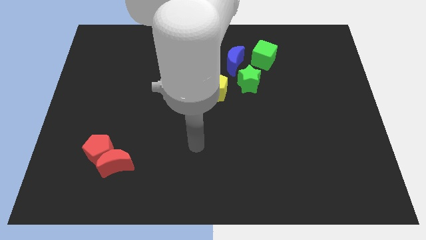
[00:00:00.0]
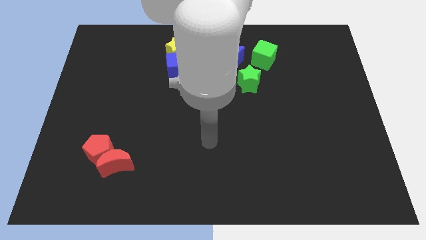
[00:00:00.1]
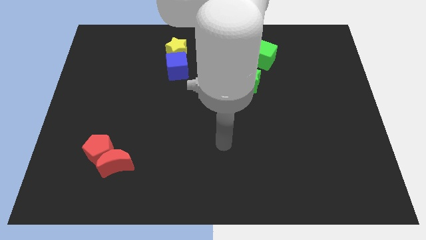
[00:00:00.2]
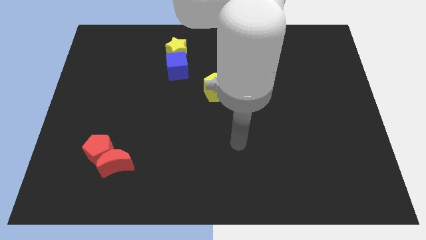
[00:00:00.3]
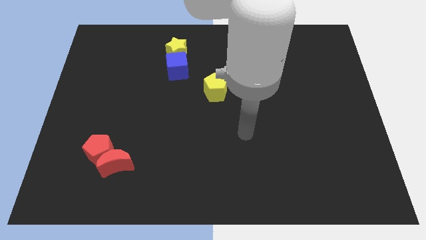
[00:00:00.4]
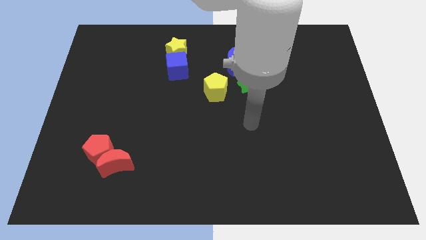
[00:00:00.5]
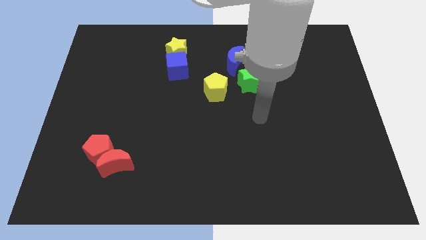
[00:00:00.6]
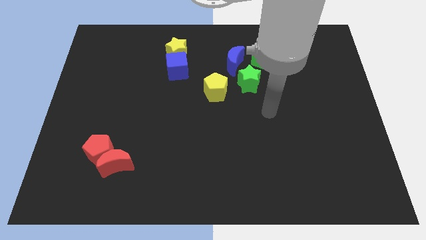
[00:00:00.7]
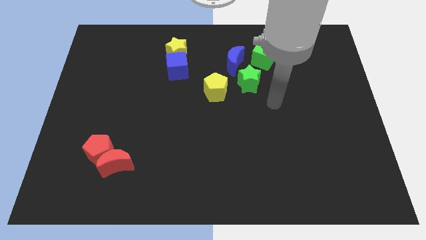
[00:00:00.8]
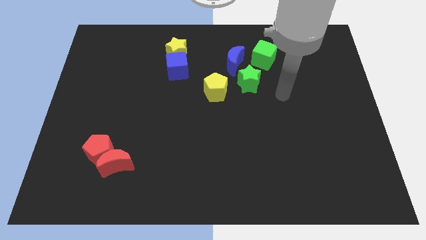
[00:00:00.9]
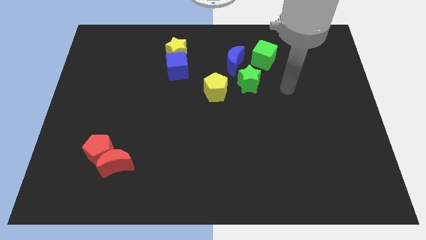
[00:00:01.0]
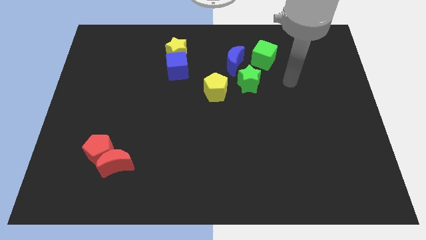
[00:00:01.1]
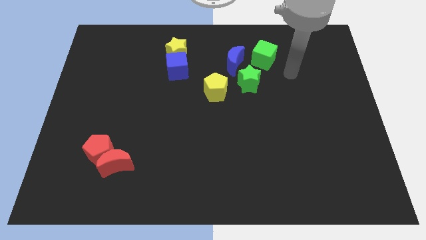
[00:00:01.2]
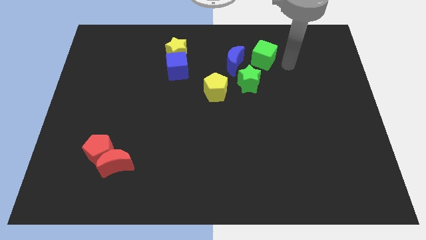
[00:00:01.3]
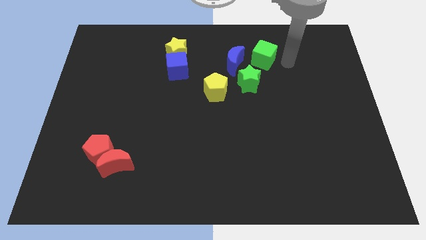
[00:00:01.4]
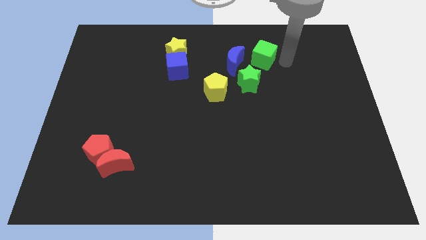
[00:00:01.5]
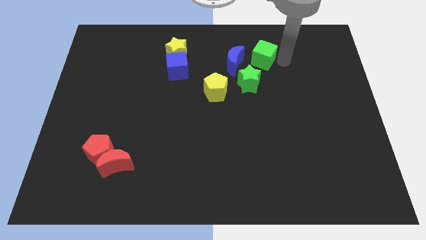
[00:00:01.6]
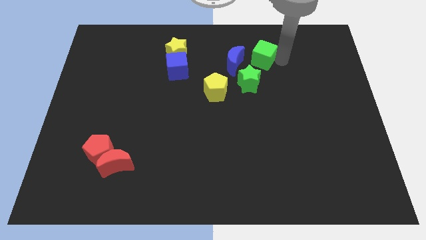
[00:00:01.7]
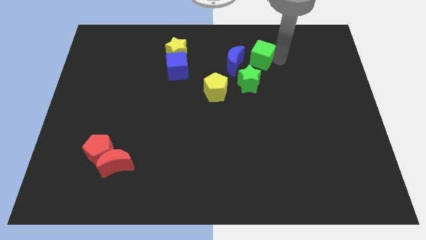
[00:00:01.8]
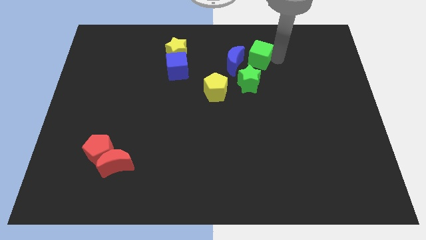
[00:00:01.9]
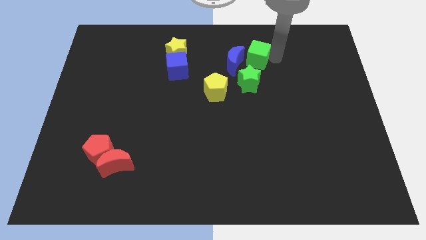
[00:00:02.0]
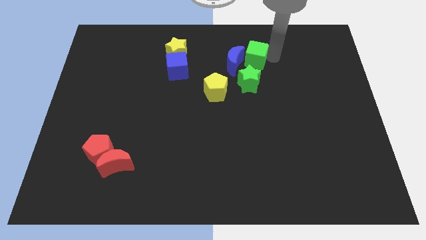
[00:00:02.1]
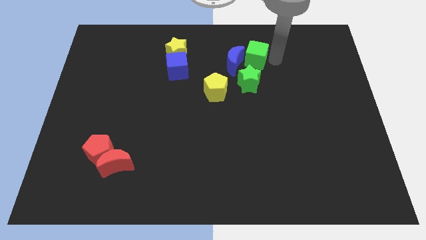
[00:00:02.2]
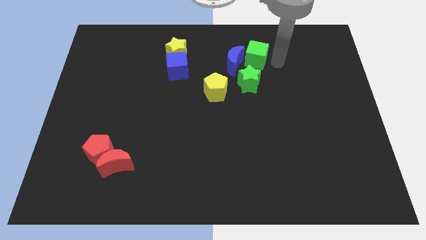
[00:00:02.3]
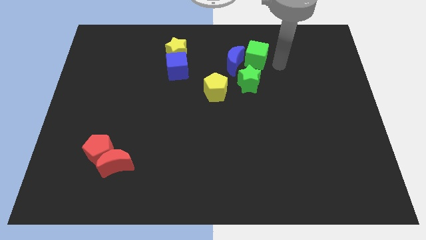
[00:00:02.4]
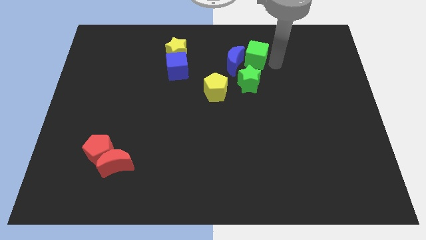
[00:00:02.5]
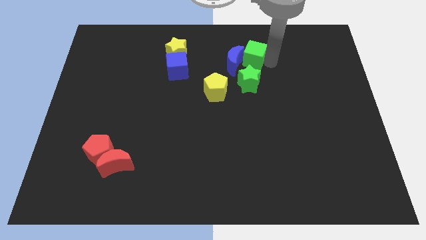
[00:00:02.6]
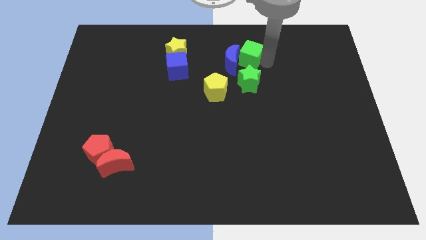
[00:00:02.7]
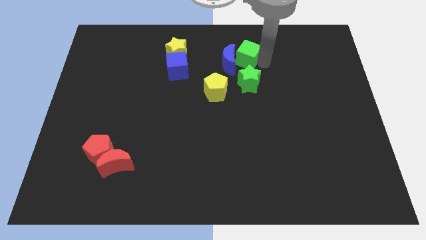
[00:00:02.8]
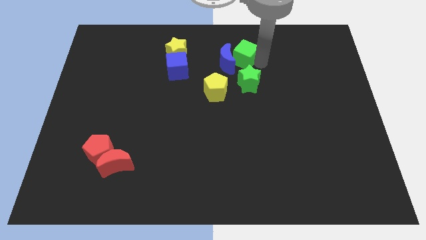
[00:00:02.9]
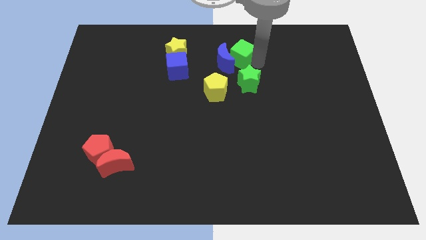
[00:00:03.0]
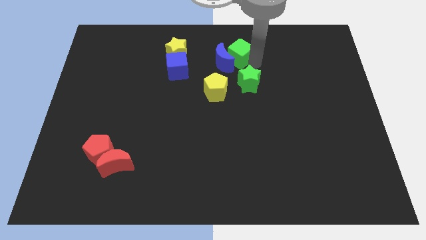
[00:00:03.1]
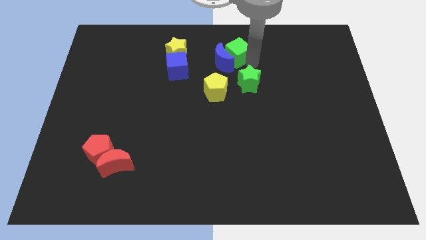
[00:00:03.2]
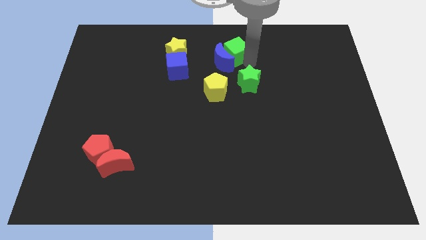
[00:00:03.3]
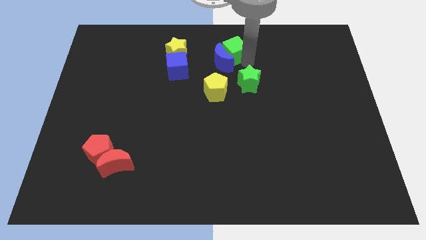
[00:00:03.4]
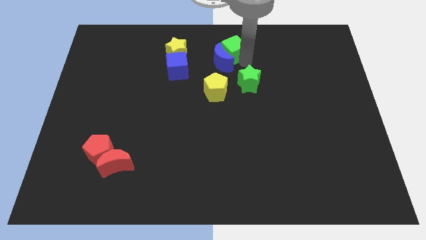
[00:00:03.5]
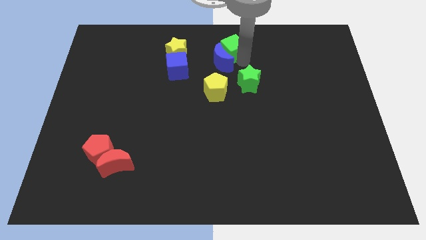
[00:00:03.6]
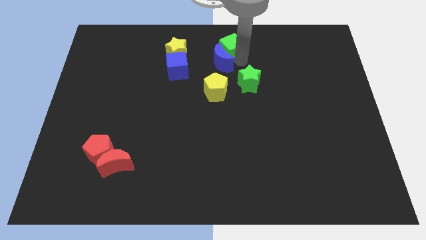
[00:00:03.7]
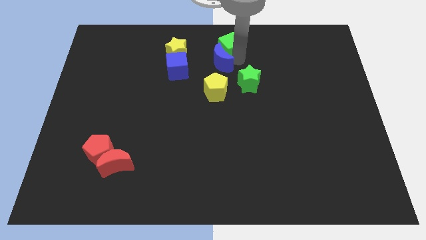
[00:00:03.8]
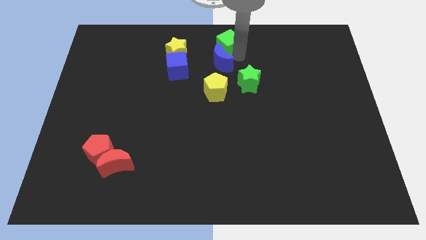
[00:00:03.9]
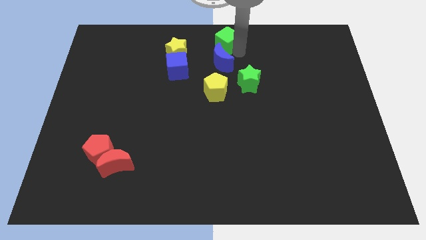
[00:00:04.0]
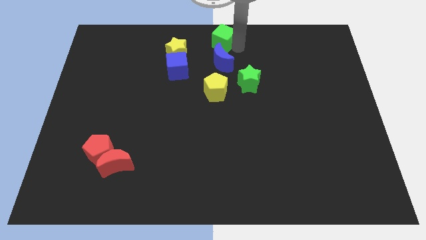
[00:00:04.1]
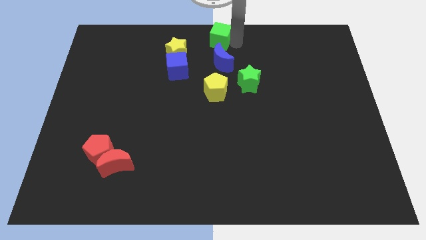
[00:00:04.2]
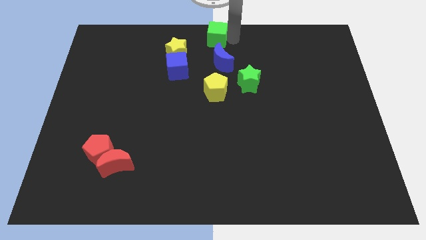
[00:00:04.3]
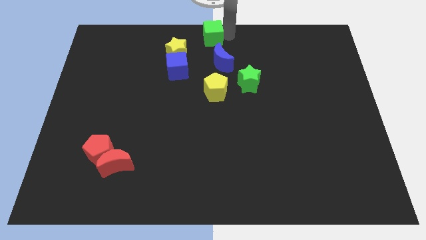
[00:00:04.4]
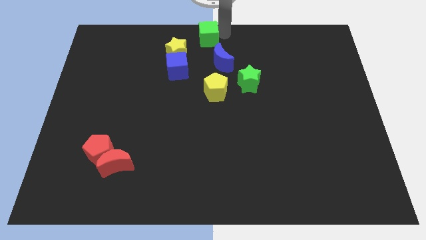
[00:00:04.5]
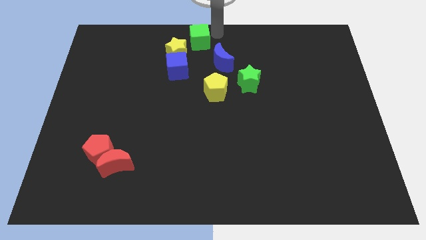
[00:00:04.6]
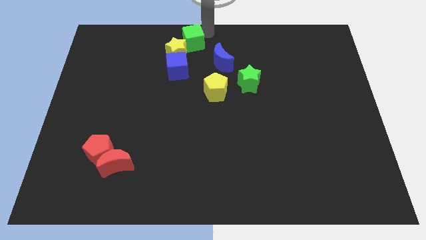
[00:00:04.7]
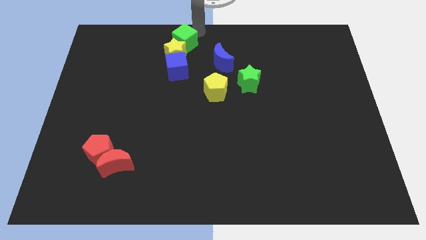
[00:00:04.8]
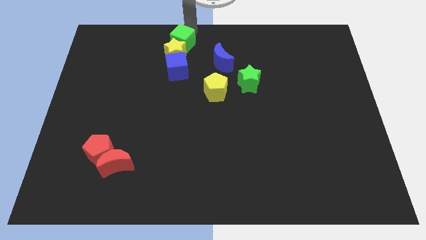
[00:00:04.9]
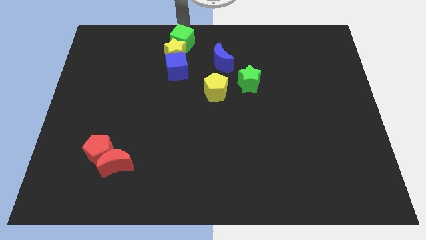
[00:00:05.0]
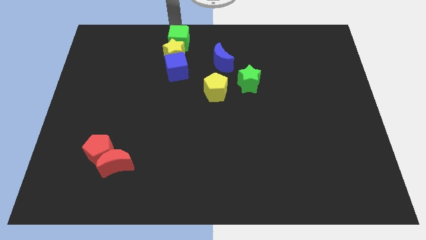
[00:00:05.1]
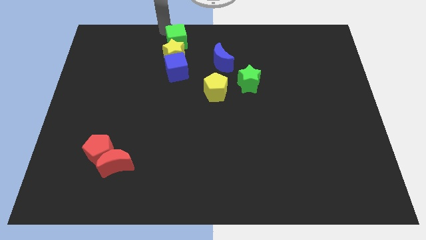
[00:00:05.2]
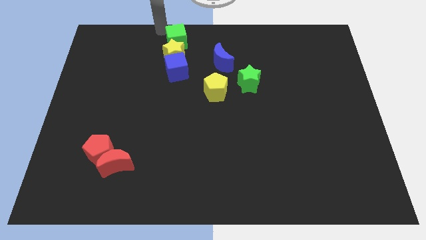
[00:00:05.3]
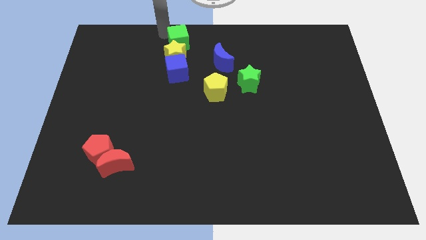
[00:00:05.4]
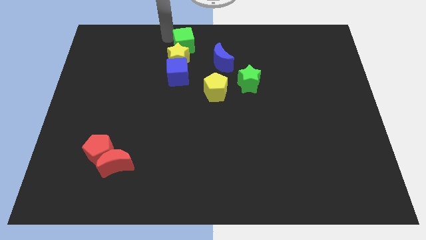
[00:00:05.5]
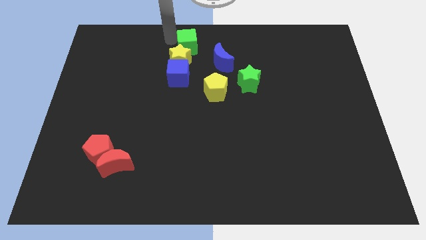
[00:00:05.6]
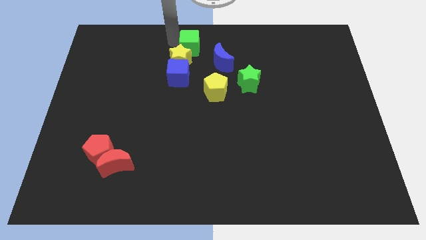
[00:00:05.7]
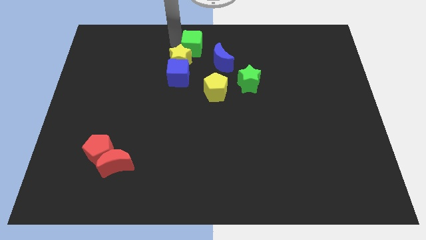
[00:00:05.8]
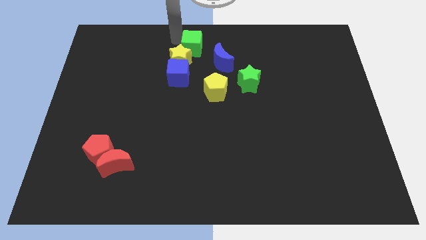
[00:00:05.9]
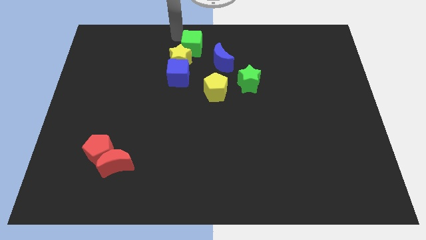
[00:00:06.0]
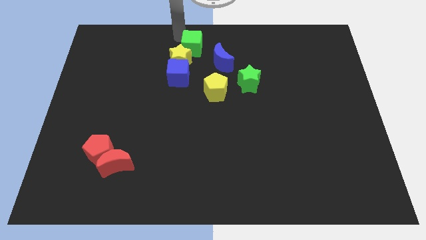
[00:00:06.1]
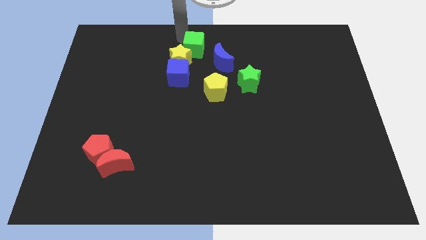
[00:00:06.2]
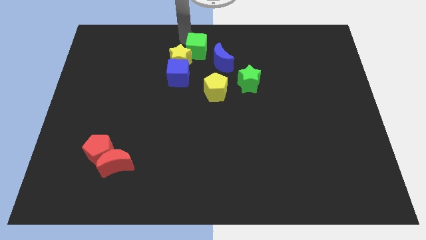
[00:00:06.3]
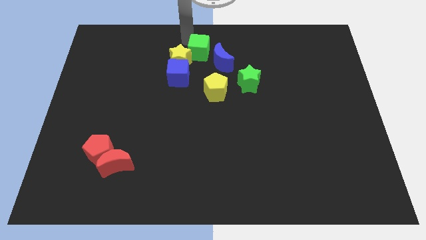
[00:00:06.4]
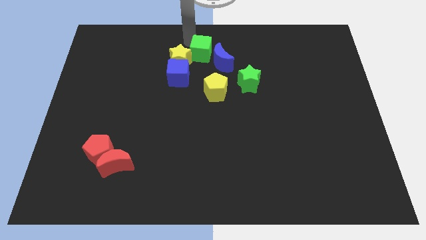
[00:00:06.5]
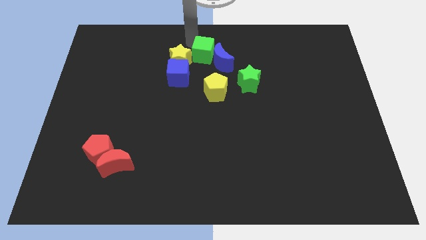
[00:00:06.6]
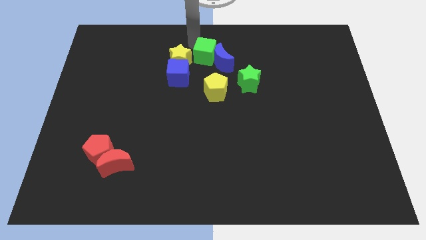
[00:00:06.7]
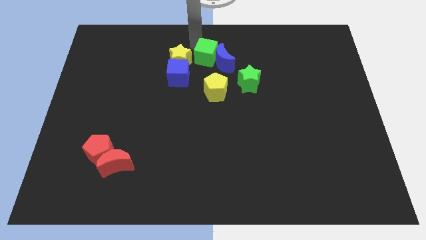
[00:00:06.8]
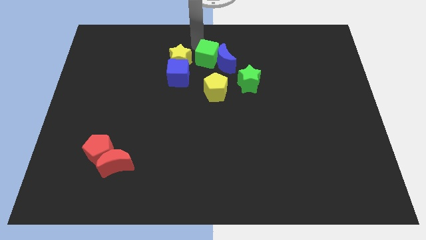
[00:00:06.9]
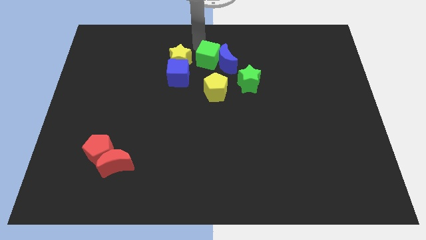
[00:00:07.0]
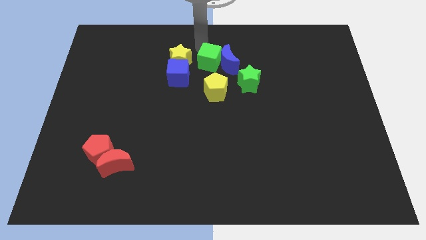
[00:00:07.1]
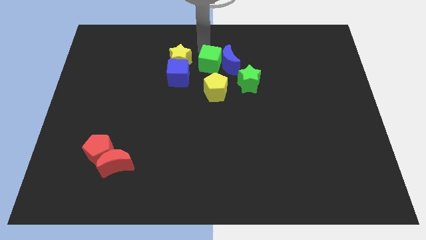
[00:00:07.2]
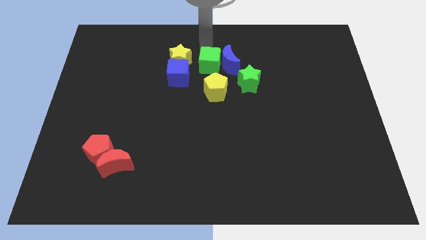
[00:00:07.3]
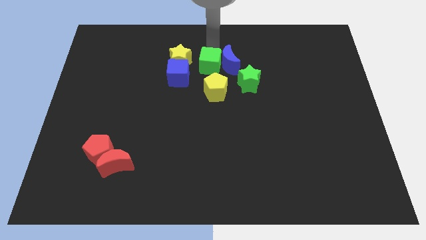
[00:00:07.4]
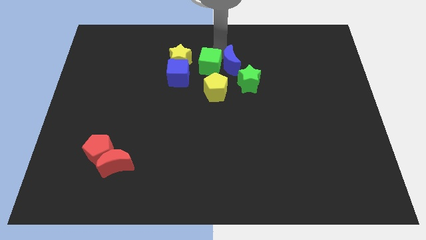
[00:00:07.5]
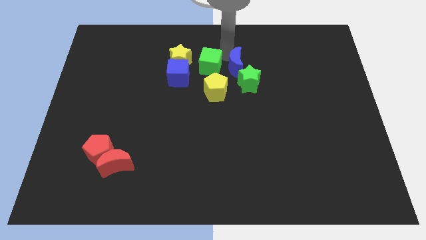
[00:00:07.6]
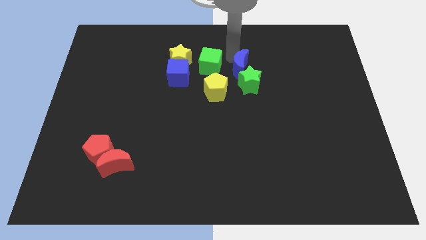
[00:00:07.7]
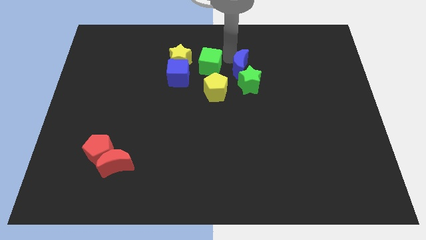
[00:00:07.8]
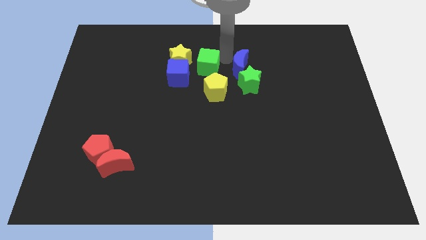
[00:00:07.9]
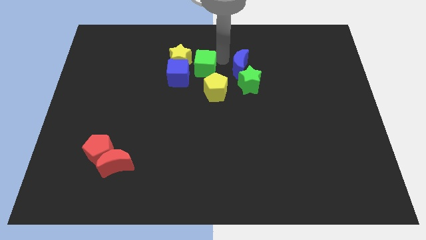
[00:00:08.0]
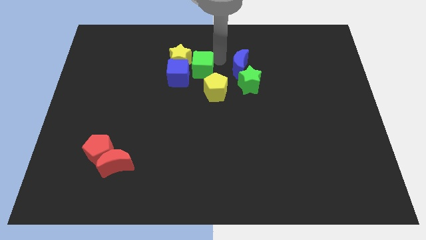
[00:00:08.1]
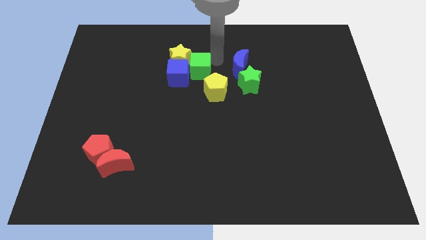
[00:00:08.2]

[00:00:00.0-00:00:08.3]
push the green cube towards the blue cube
